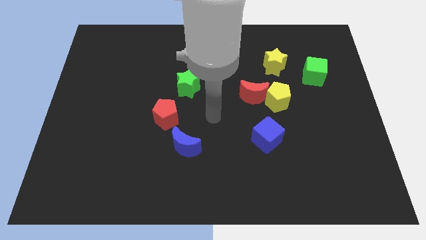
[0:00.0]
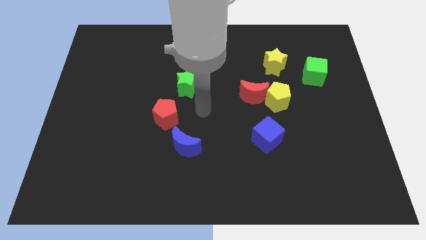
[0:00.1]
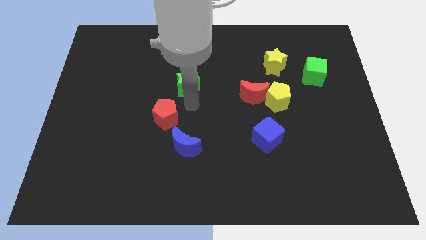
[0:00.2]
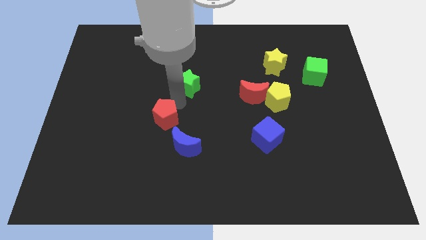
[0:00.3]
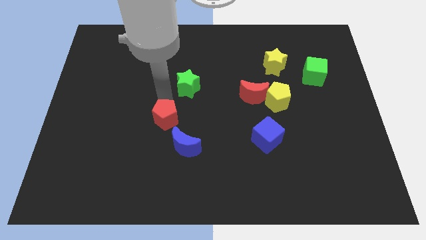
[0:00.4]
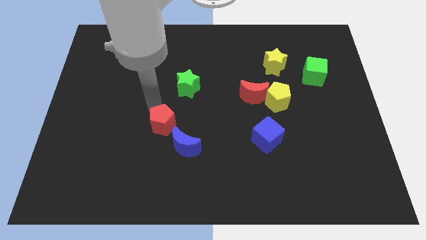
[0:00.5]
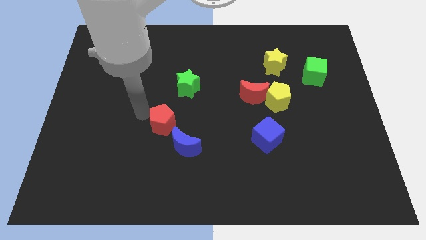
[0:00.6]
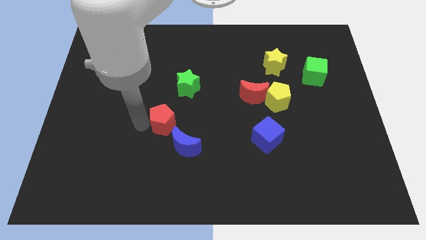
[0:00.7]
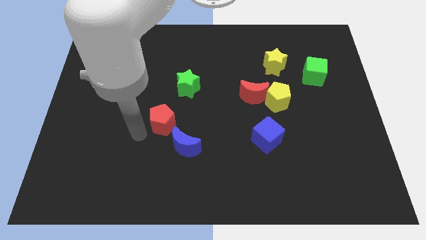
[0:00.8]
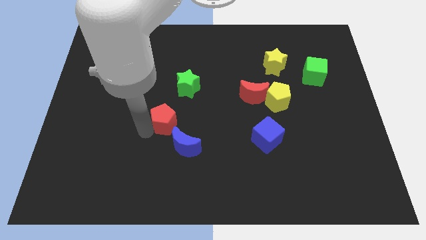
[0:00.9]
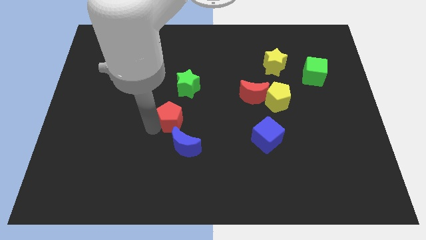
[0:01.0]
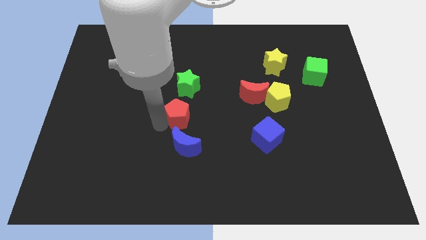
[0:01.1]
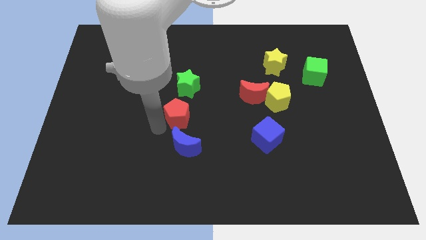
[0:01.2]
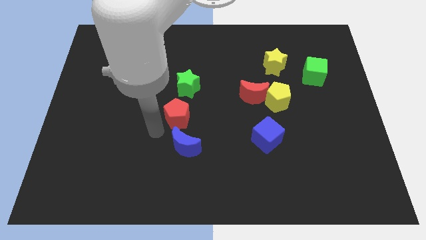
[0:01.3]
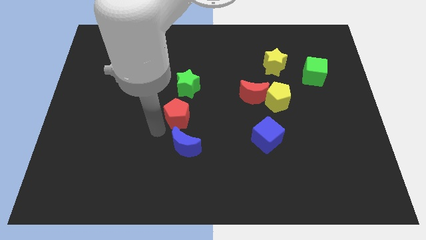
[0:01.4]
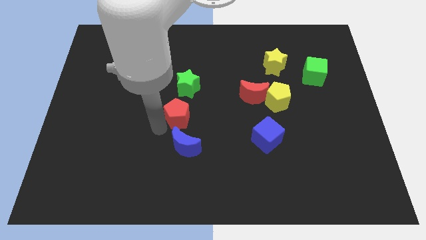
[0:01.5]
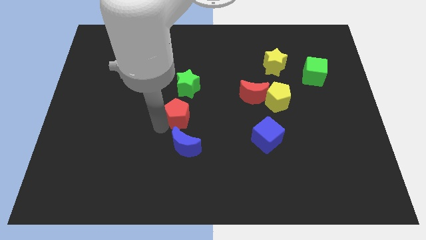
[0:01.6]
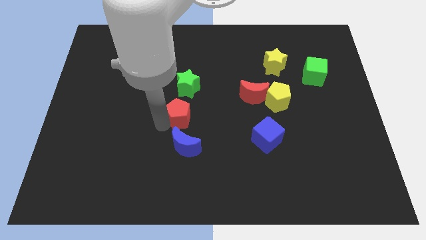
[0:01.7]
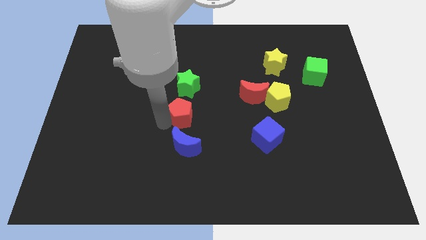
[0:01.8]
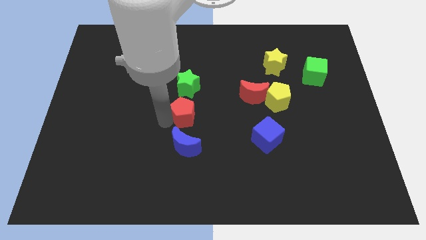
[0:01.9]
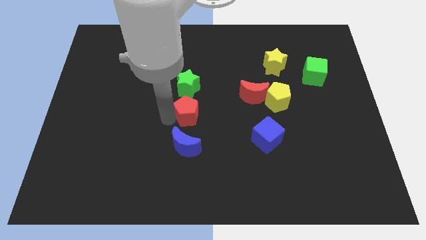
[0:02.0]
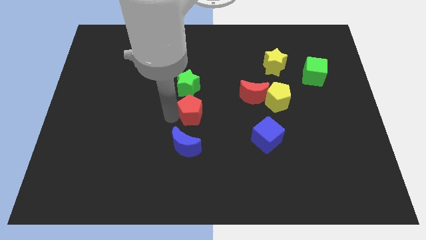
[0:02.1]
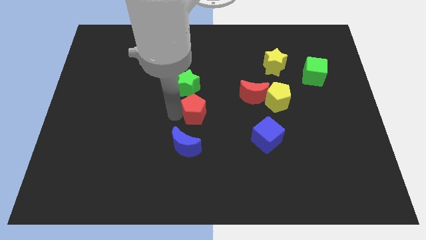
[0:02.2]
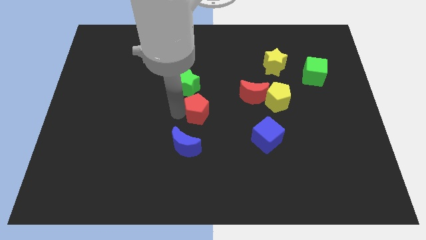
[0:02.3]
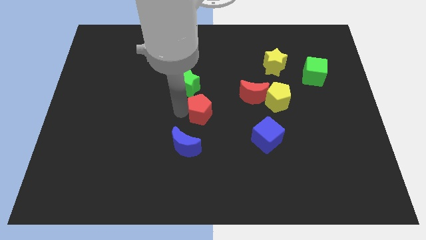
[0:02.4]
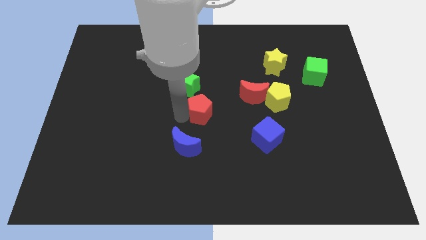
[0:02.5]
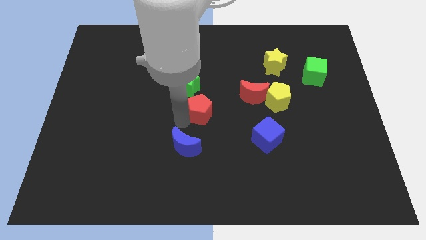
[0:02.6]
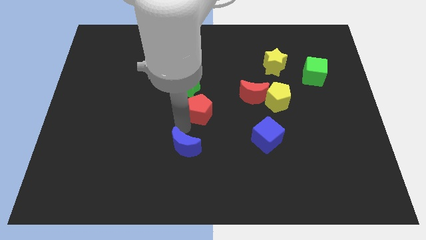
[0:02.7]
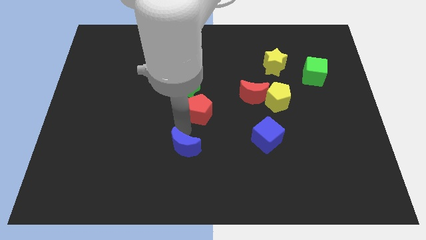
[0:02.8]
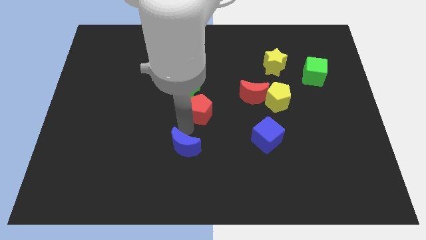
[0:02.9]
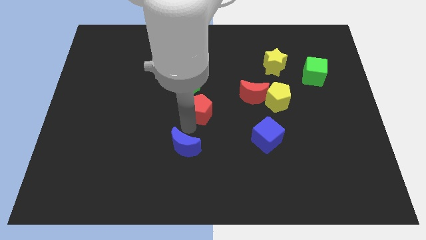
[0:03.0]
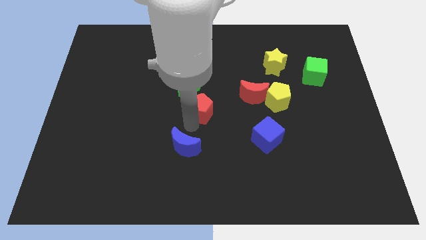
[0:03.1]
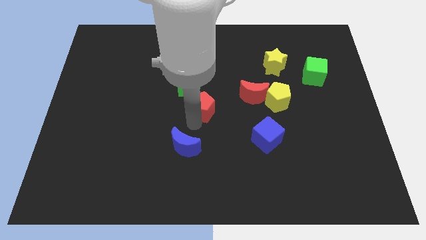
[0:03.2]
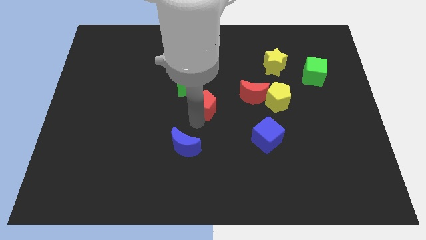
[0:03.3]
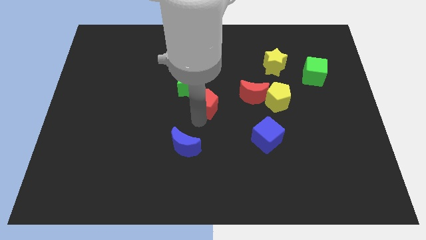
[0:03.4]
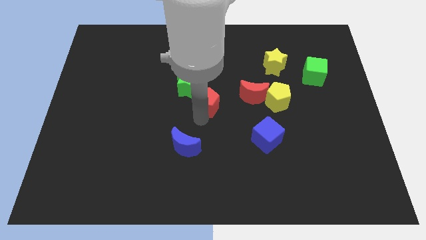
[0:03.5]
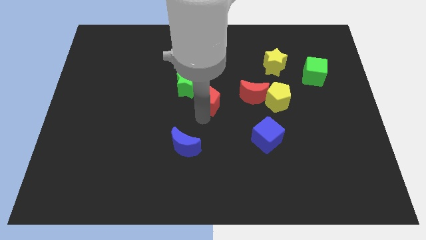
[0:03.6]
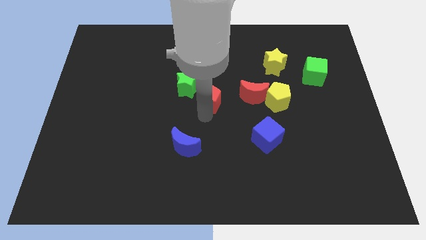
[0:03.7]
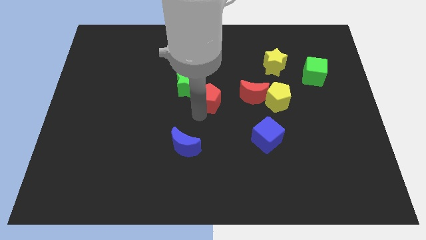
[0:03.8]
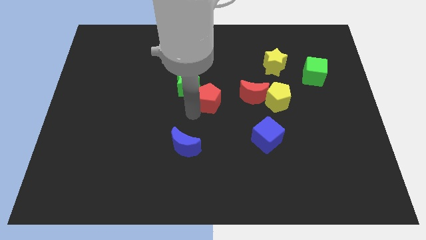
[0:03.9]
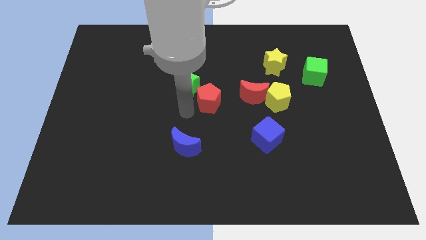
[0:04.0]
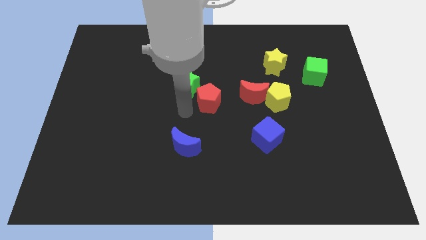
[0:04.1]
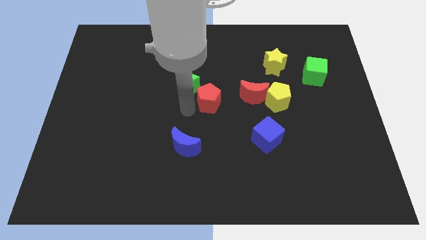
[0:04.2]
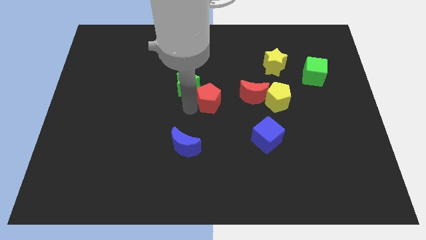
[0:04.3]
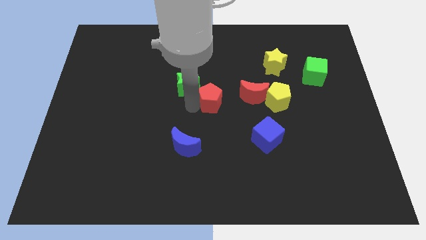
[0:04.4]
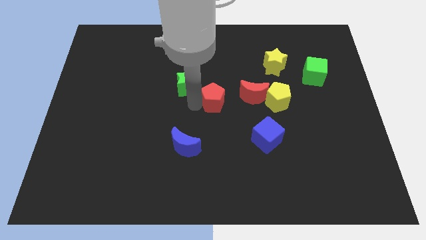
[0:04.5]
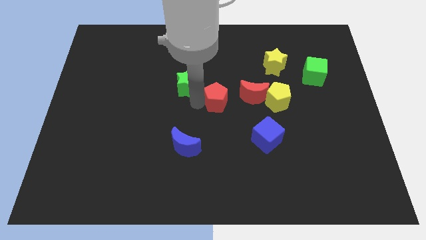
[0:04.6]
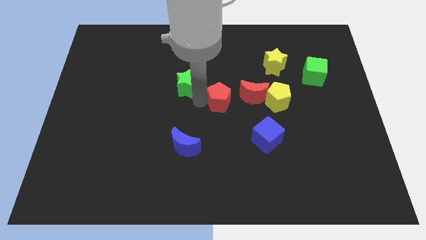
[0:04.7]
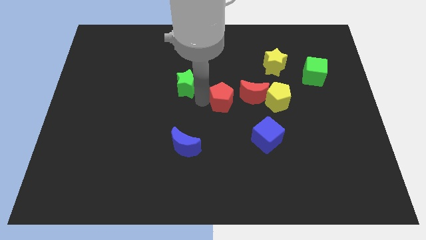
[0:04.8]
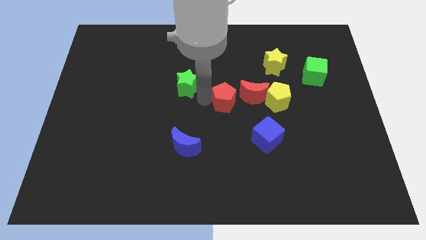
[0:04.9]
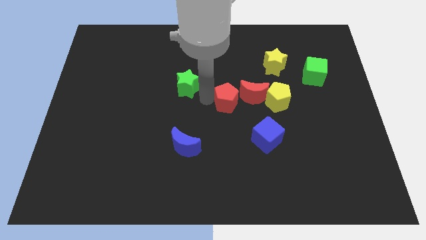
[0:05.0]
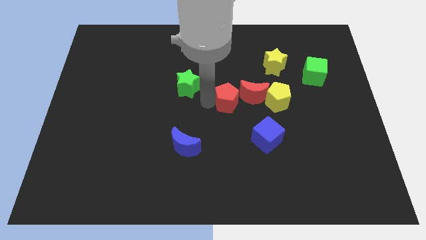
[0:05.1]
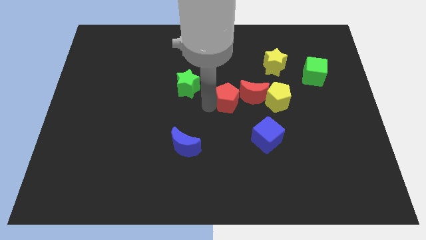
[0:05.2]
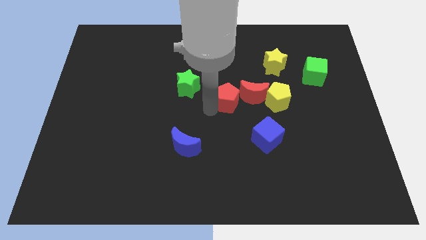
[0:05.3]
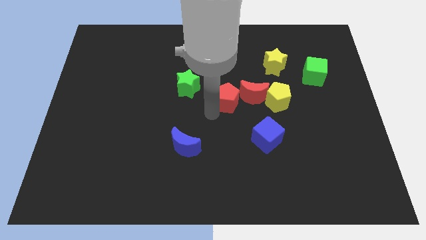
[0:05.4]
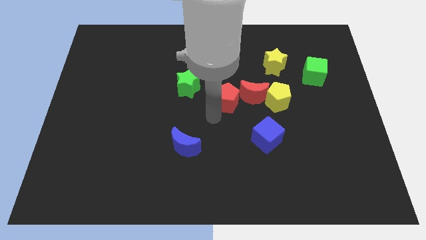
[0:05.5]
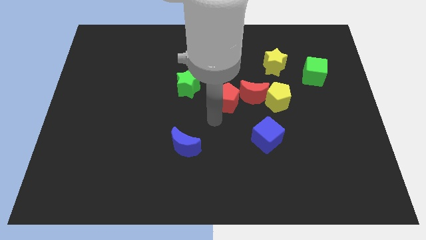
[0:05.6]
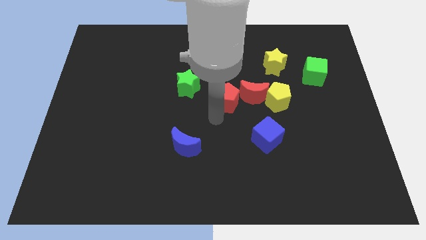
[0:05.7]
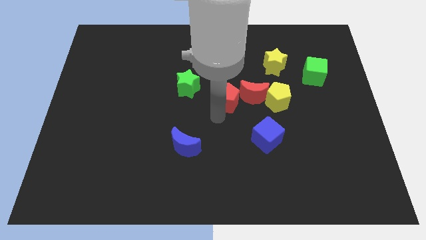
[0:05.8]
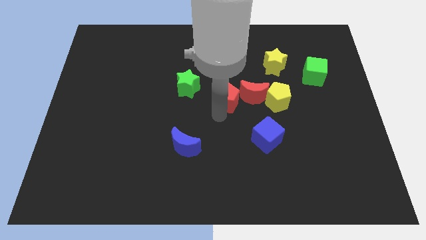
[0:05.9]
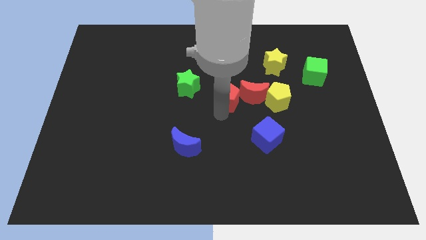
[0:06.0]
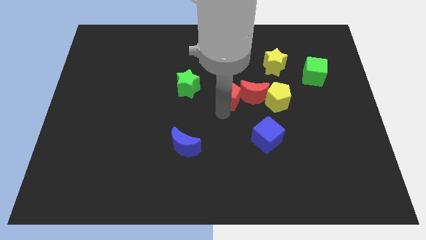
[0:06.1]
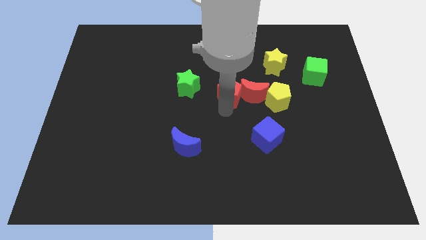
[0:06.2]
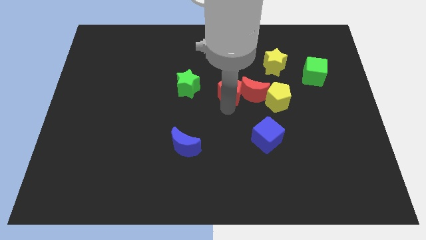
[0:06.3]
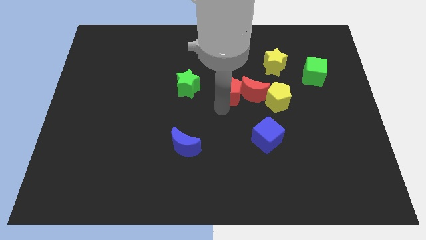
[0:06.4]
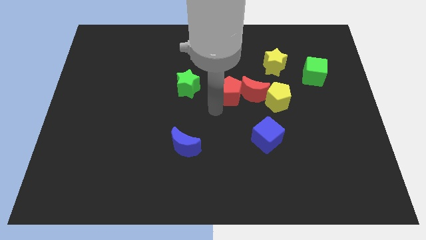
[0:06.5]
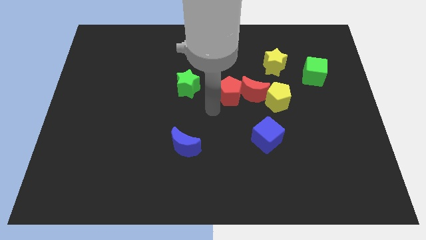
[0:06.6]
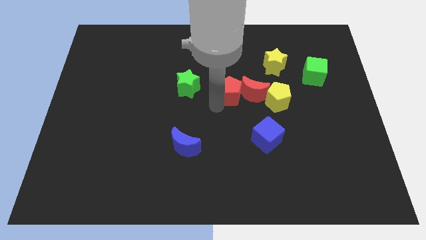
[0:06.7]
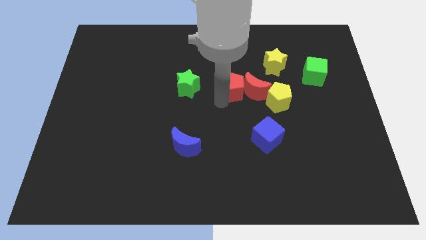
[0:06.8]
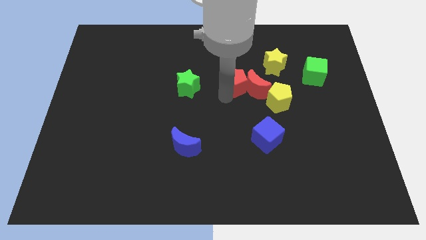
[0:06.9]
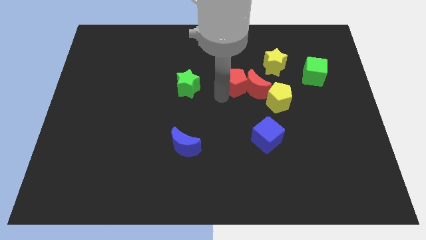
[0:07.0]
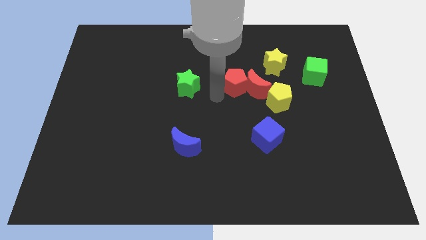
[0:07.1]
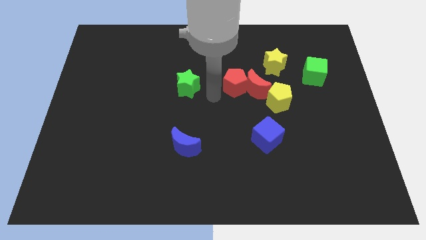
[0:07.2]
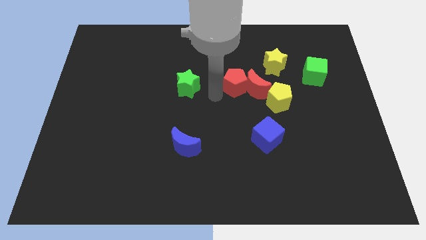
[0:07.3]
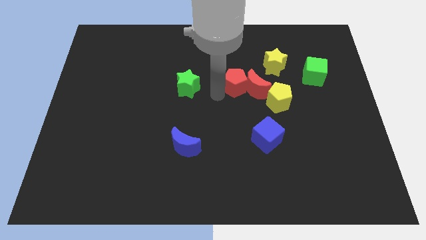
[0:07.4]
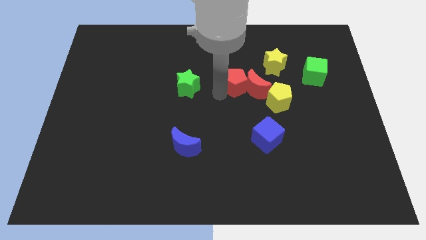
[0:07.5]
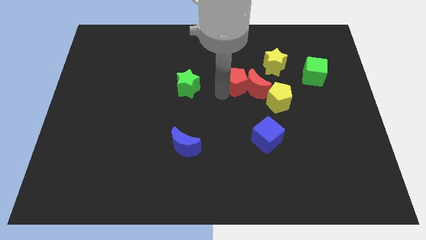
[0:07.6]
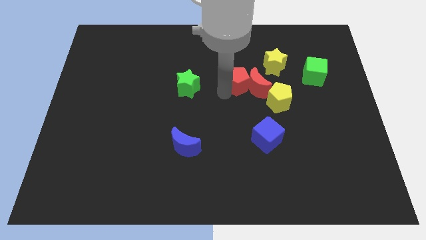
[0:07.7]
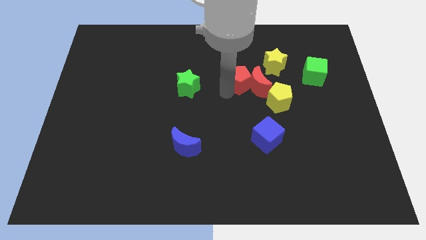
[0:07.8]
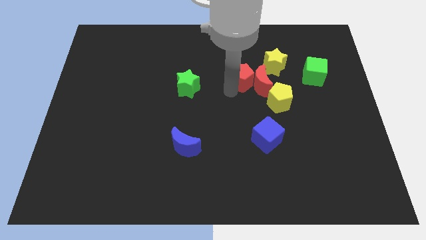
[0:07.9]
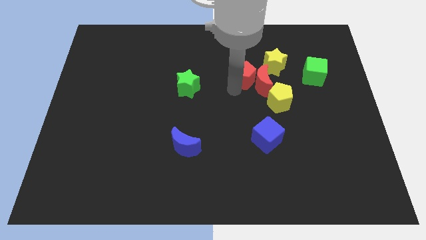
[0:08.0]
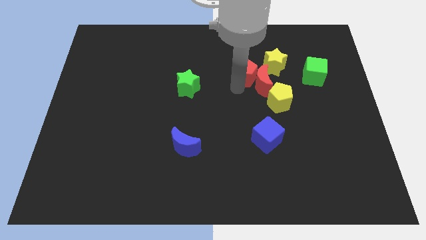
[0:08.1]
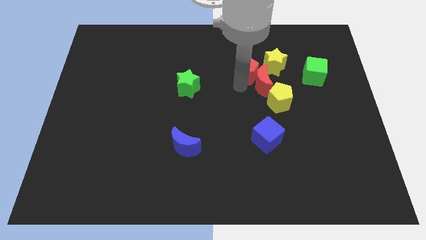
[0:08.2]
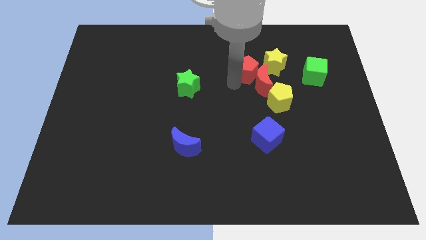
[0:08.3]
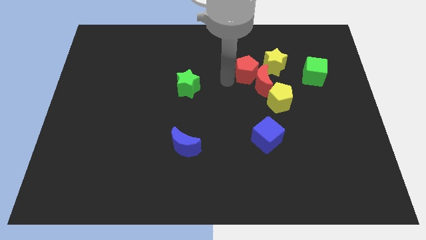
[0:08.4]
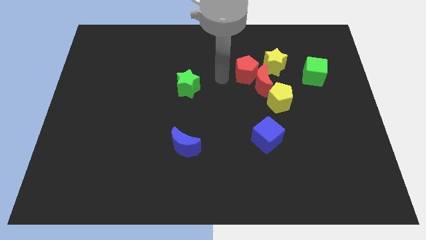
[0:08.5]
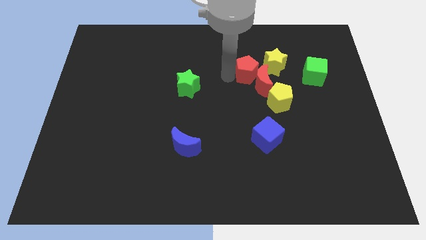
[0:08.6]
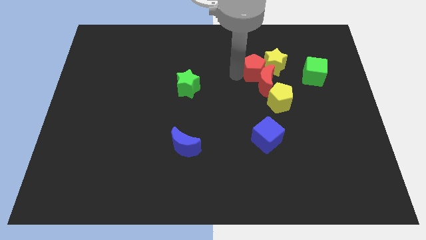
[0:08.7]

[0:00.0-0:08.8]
slide the red pentagon towards the yellow star
